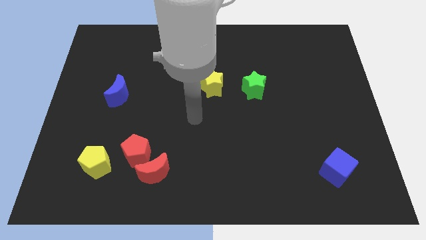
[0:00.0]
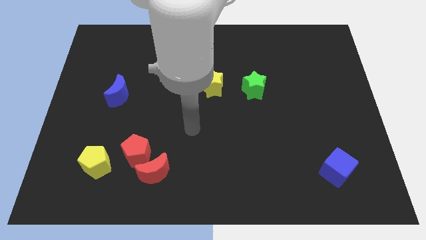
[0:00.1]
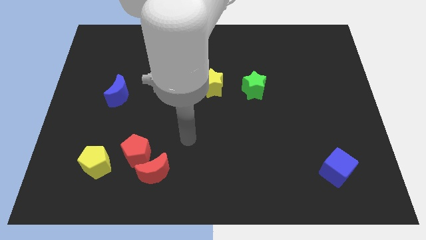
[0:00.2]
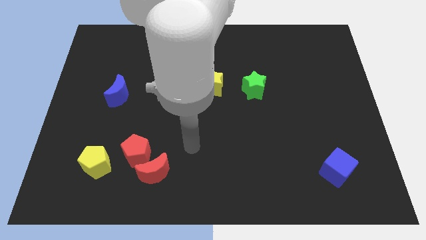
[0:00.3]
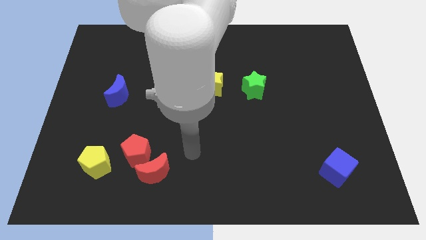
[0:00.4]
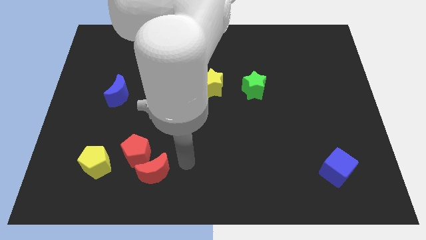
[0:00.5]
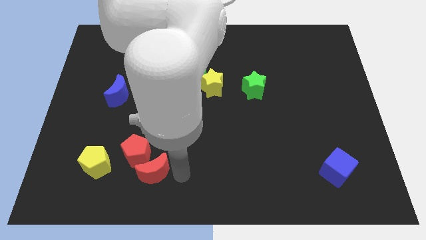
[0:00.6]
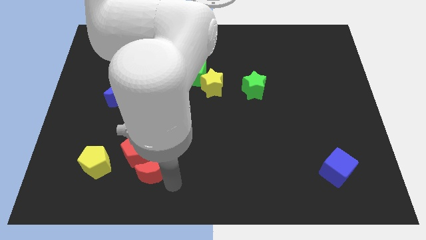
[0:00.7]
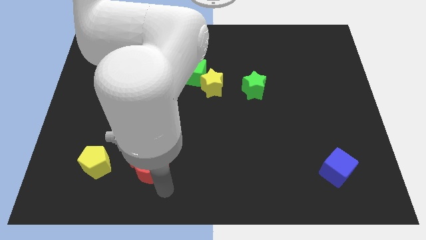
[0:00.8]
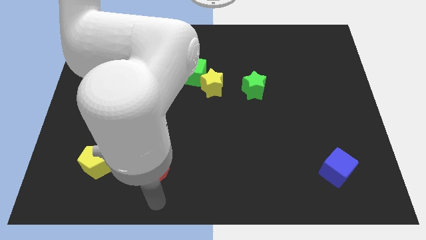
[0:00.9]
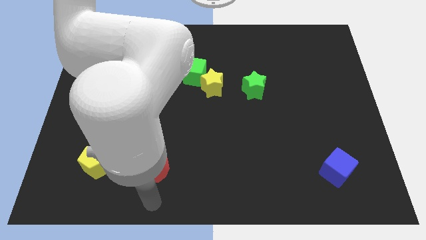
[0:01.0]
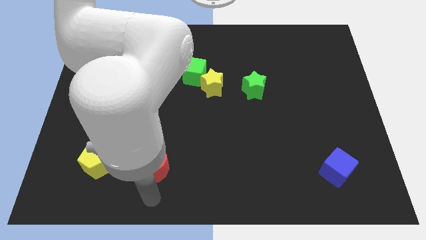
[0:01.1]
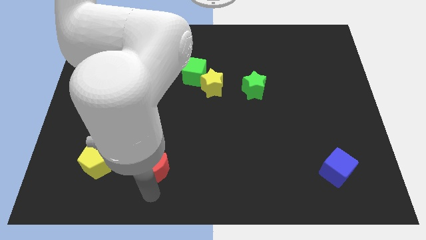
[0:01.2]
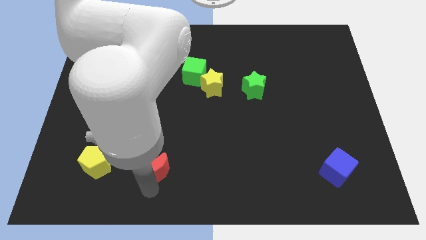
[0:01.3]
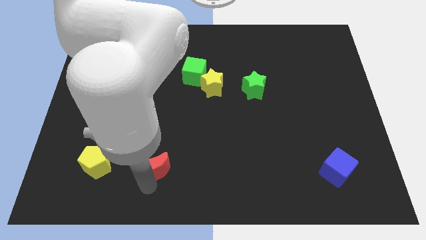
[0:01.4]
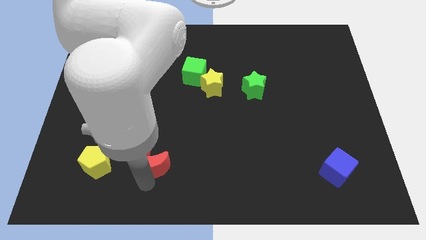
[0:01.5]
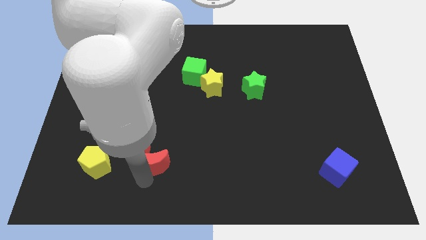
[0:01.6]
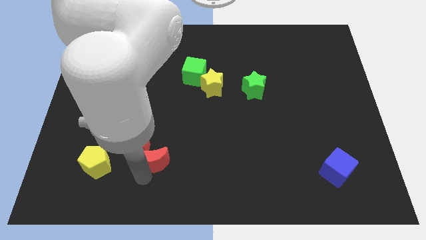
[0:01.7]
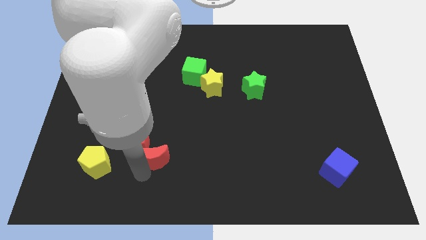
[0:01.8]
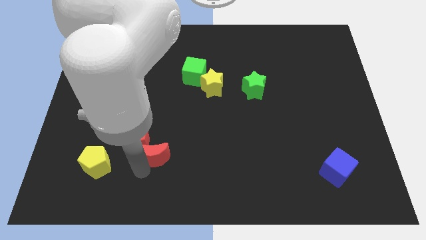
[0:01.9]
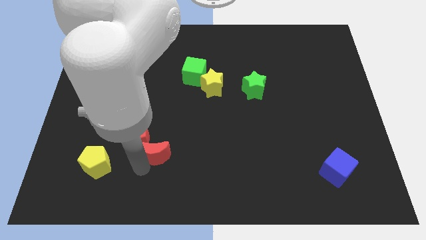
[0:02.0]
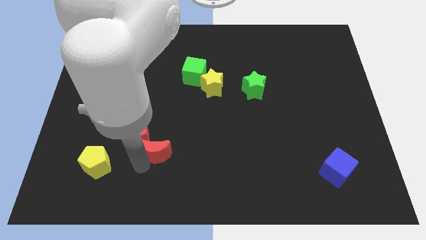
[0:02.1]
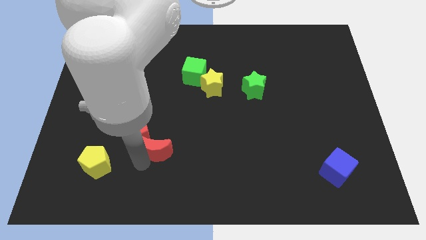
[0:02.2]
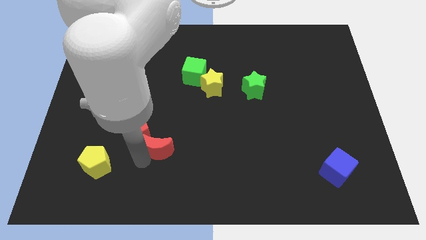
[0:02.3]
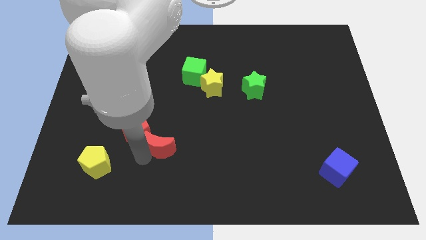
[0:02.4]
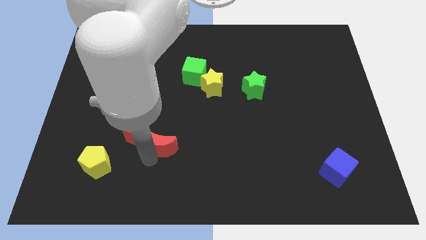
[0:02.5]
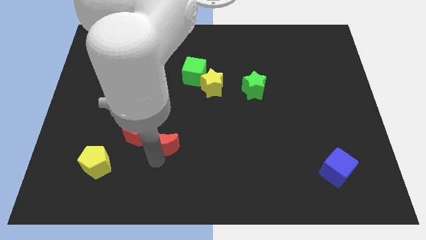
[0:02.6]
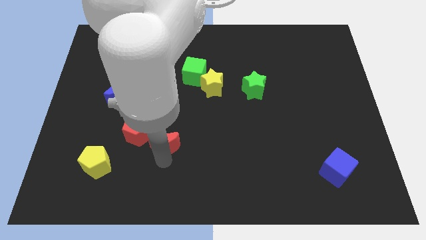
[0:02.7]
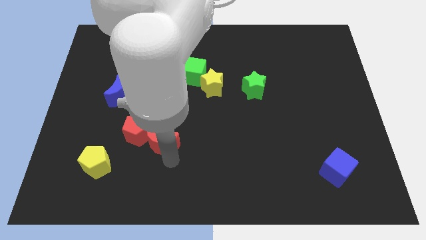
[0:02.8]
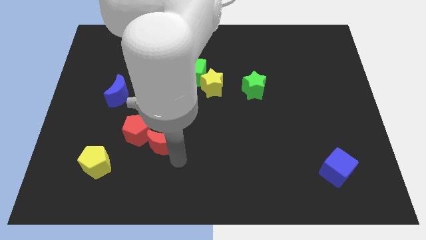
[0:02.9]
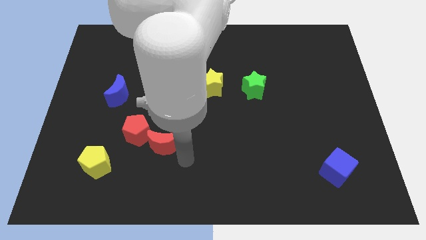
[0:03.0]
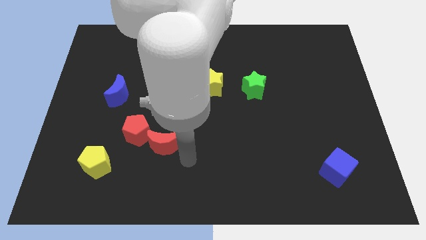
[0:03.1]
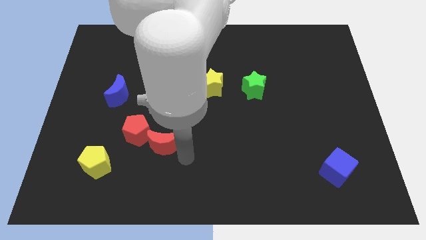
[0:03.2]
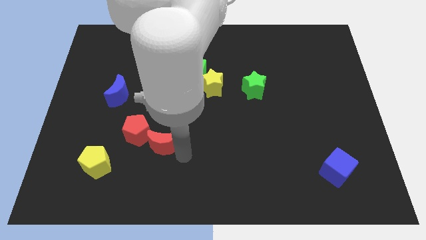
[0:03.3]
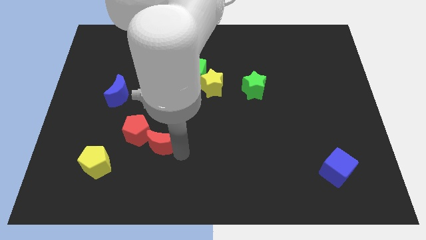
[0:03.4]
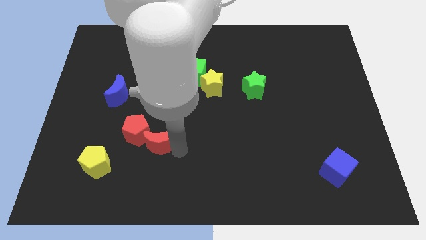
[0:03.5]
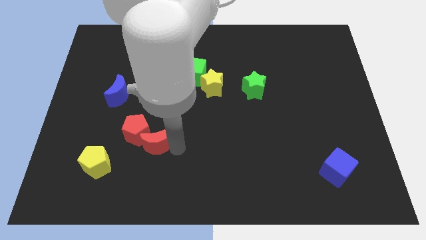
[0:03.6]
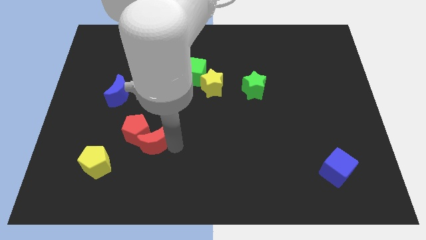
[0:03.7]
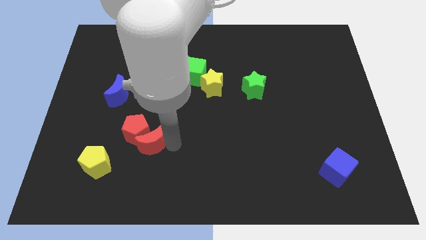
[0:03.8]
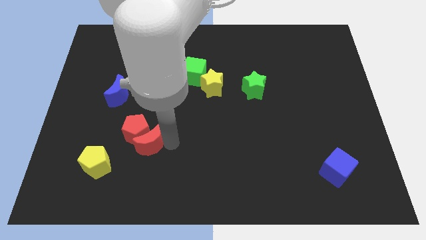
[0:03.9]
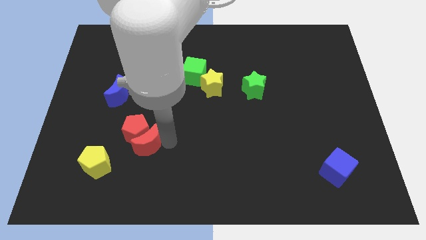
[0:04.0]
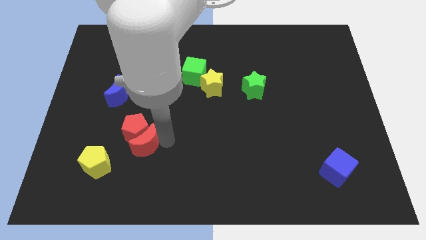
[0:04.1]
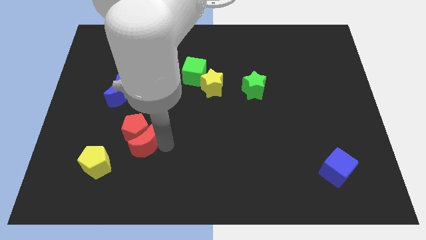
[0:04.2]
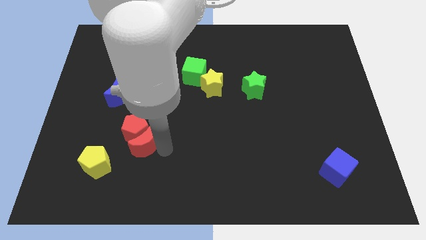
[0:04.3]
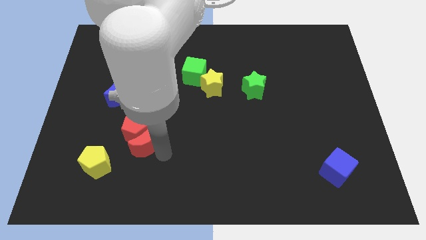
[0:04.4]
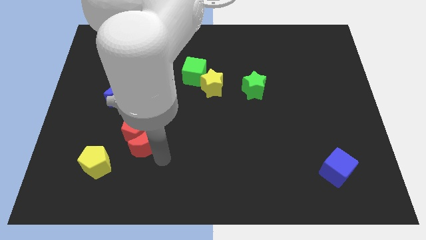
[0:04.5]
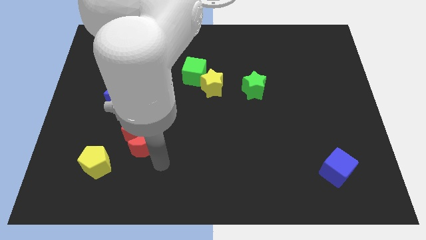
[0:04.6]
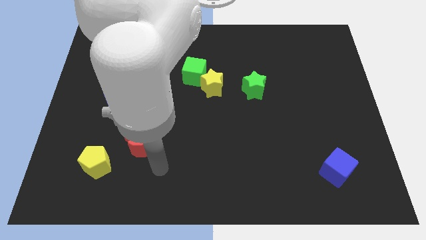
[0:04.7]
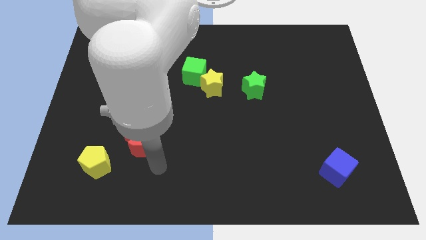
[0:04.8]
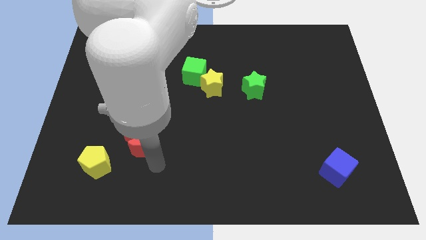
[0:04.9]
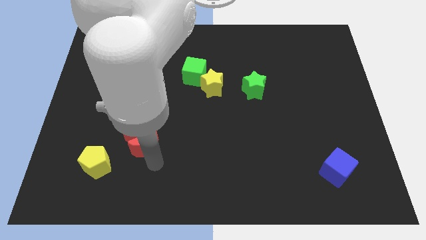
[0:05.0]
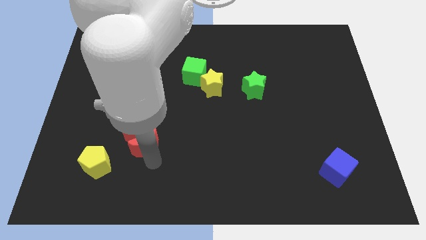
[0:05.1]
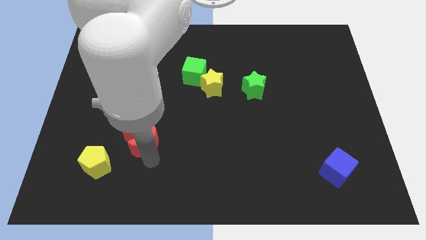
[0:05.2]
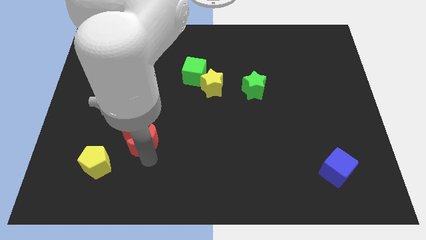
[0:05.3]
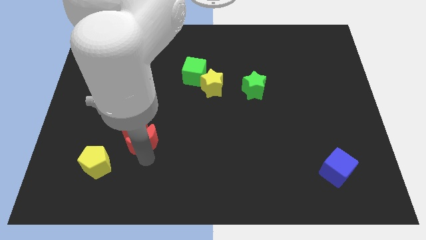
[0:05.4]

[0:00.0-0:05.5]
slide the red moon a little bit upwards and left

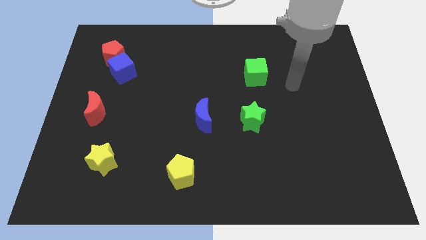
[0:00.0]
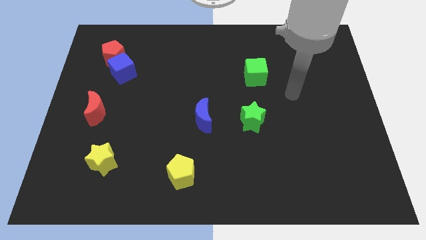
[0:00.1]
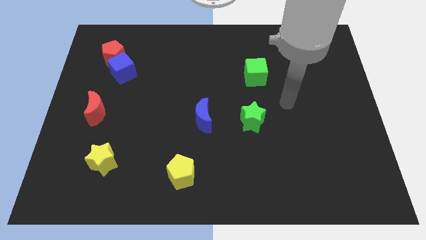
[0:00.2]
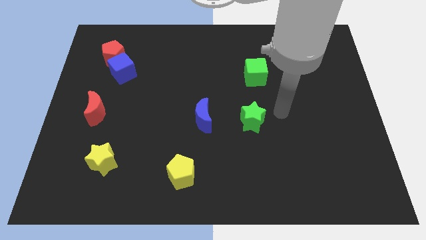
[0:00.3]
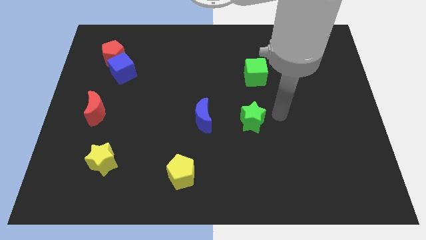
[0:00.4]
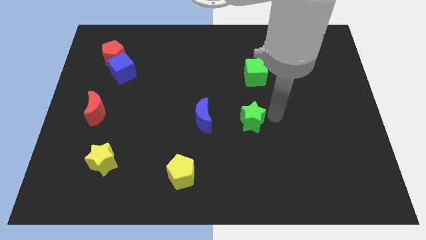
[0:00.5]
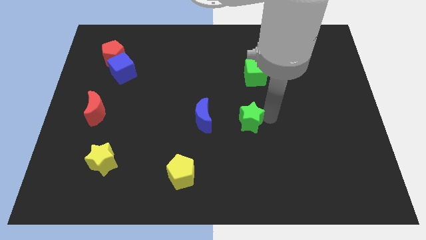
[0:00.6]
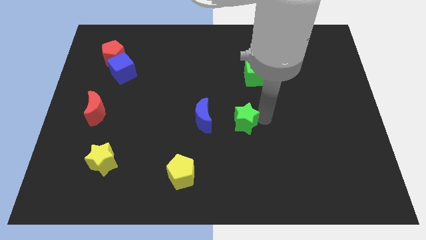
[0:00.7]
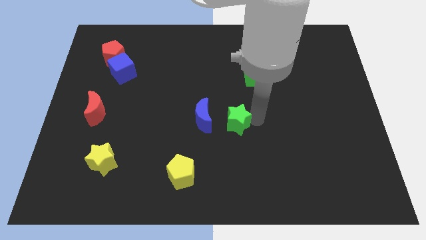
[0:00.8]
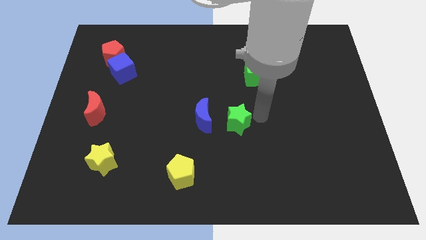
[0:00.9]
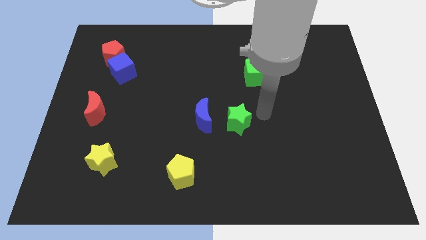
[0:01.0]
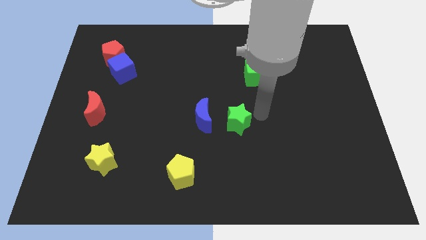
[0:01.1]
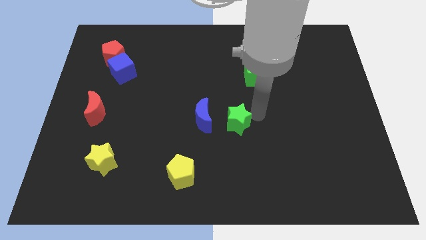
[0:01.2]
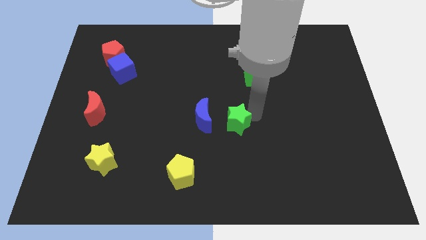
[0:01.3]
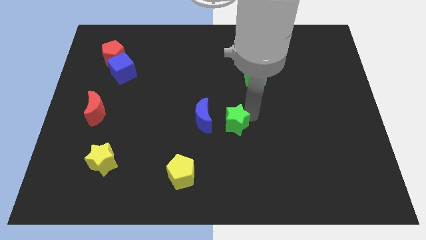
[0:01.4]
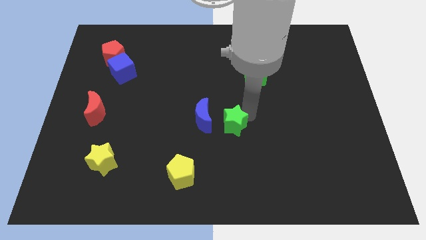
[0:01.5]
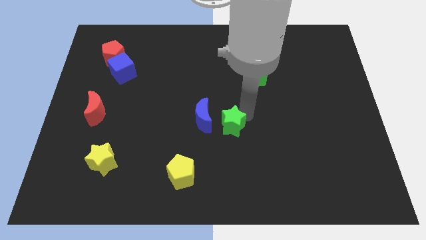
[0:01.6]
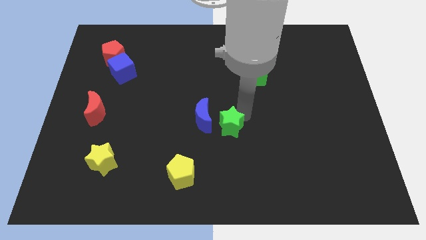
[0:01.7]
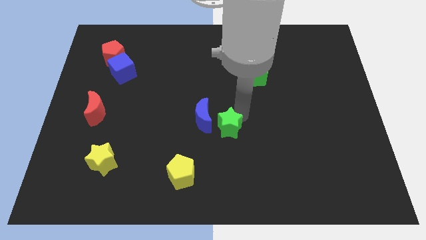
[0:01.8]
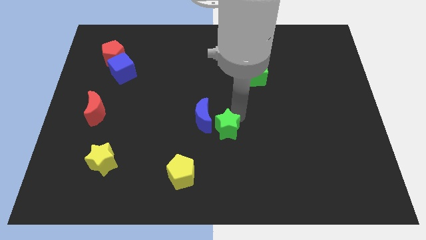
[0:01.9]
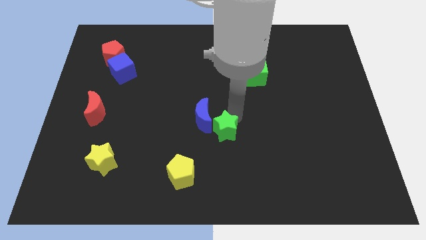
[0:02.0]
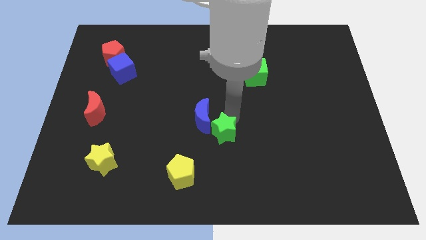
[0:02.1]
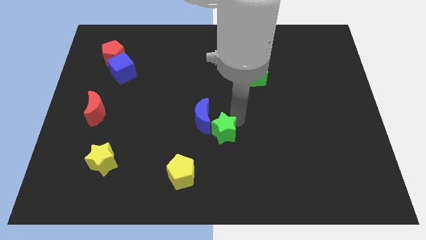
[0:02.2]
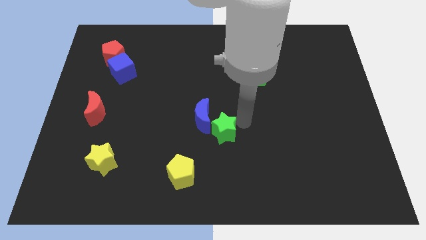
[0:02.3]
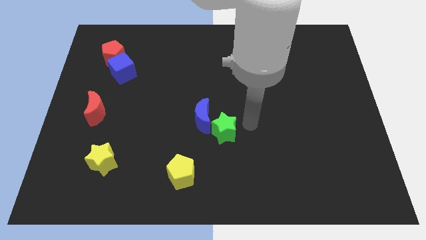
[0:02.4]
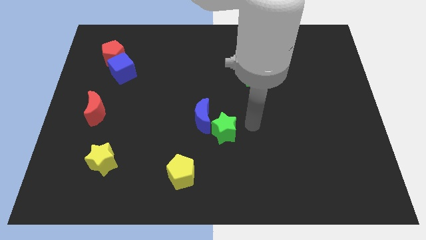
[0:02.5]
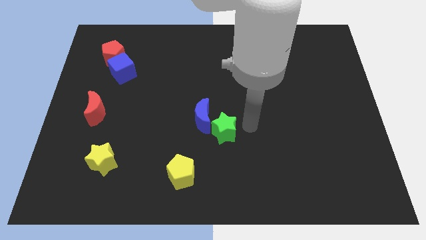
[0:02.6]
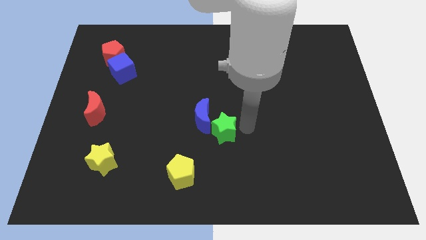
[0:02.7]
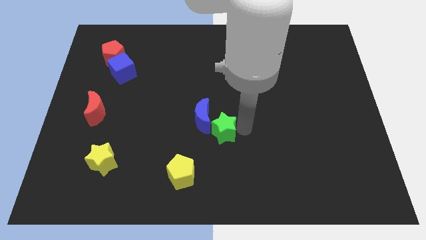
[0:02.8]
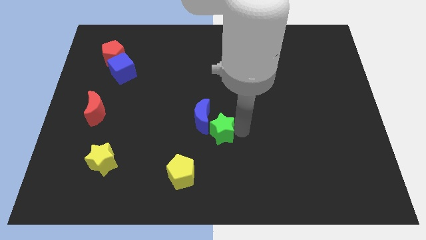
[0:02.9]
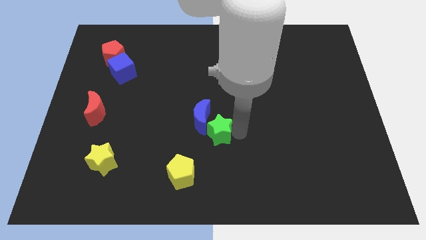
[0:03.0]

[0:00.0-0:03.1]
slightly push the green star to the left
